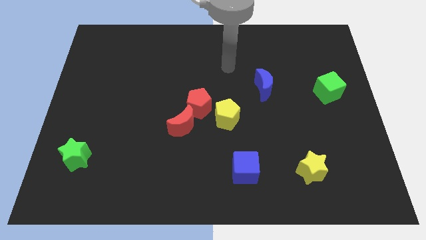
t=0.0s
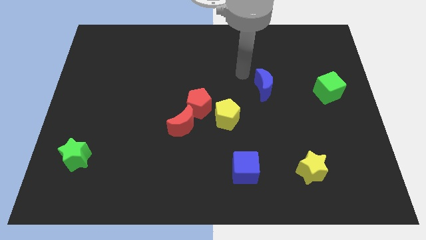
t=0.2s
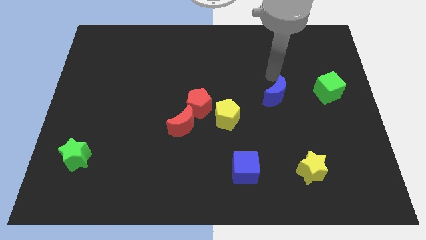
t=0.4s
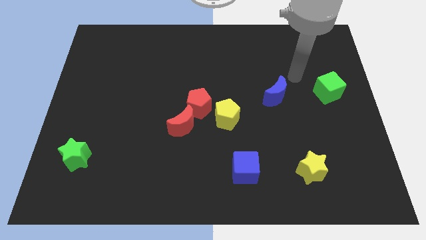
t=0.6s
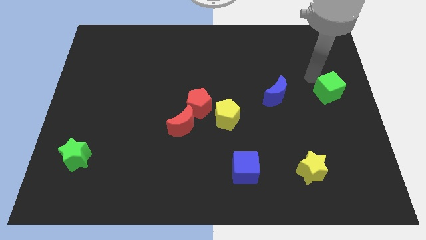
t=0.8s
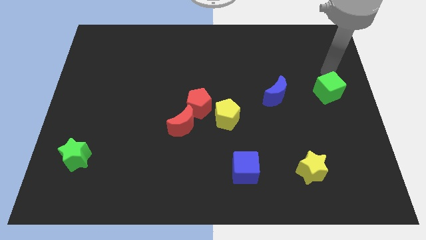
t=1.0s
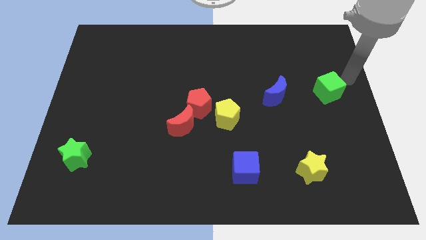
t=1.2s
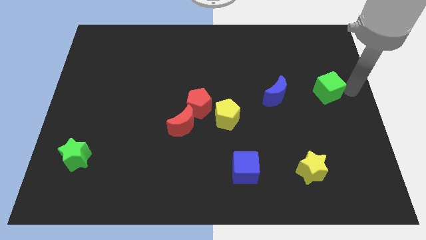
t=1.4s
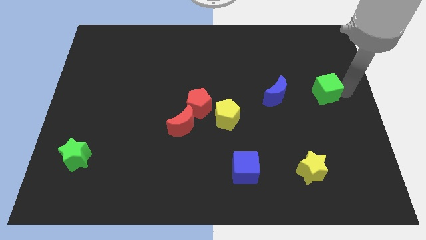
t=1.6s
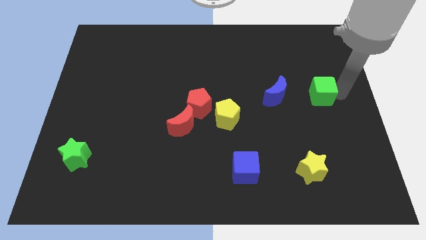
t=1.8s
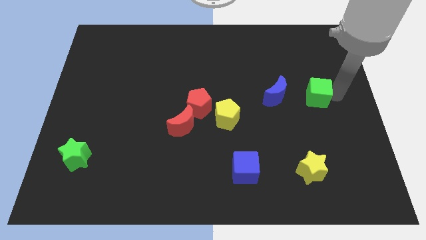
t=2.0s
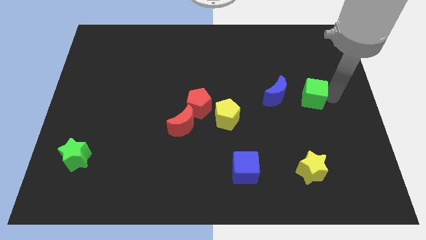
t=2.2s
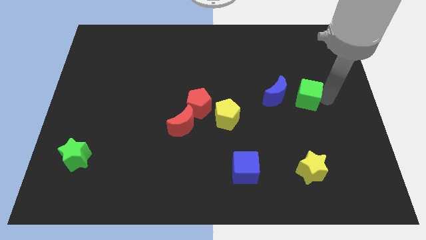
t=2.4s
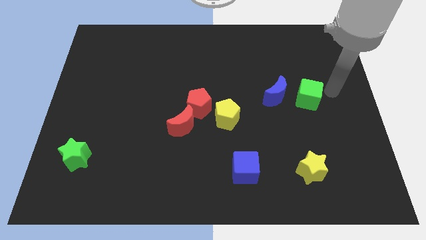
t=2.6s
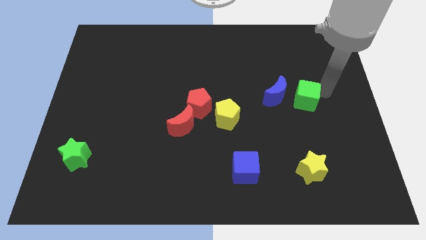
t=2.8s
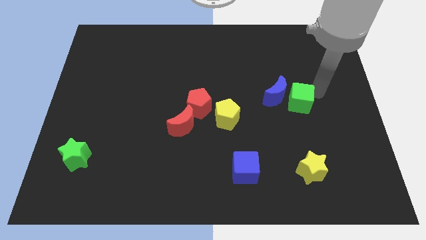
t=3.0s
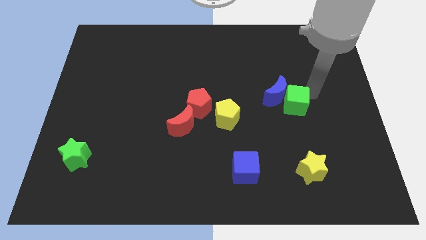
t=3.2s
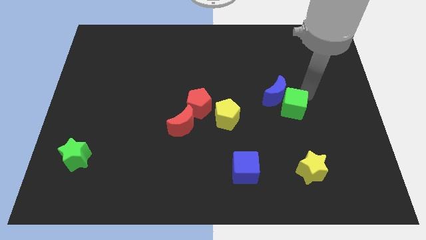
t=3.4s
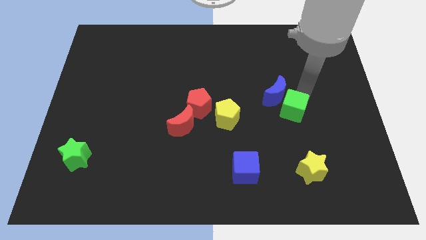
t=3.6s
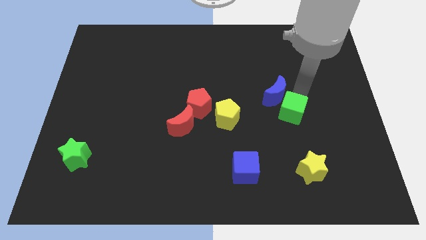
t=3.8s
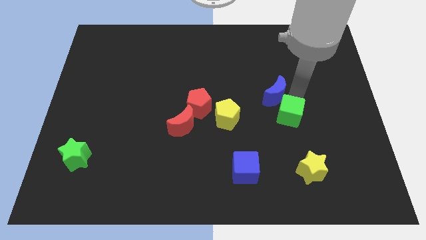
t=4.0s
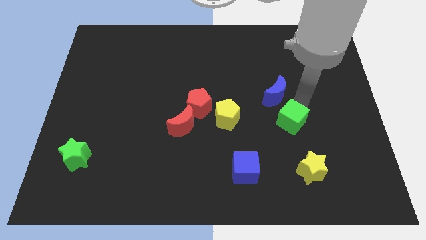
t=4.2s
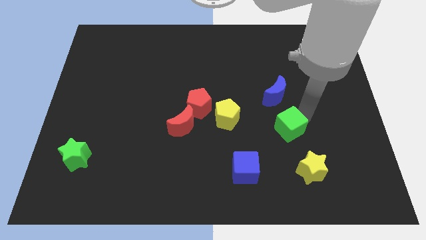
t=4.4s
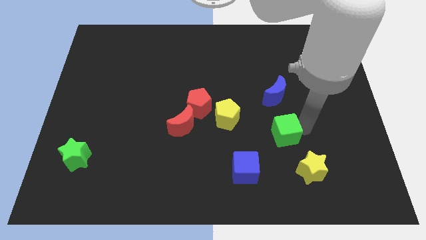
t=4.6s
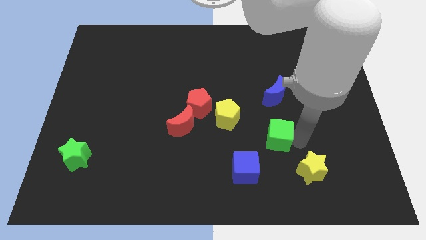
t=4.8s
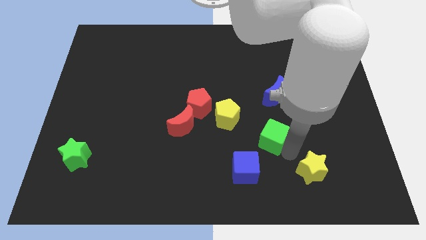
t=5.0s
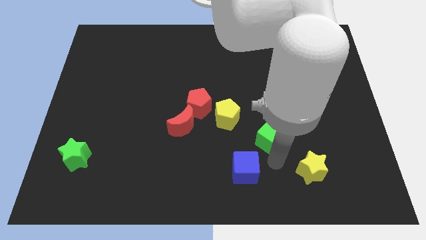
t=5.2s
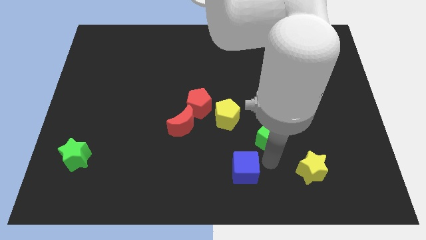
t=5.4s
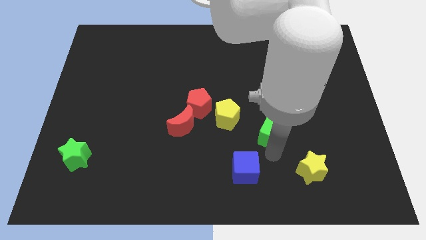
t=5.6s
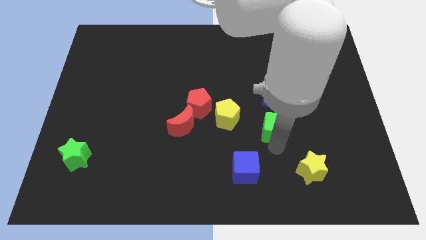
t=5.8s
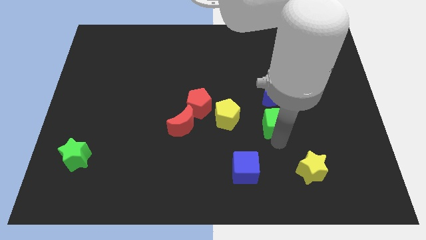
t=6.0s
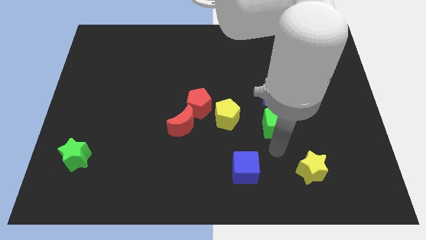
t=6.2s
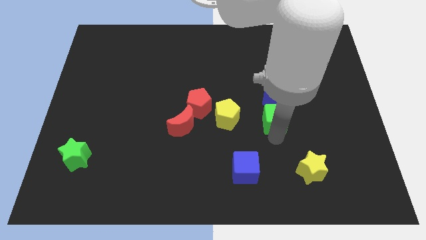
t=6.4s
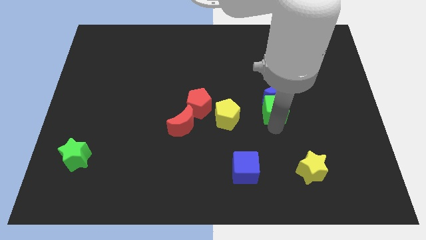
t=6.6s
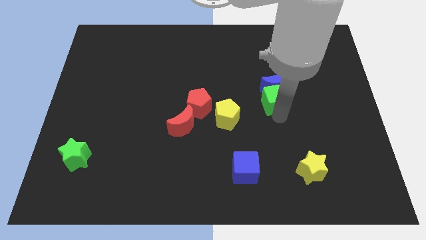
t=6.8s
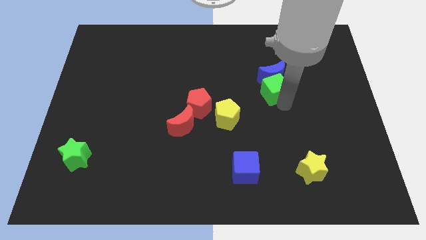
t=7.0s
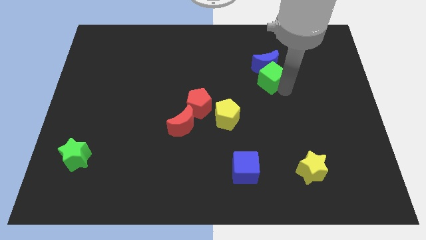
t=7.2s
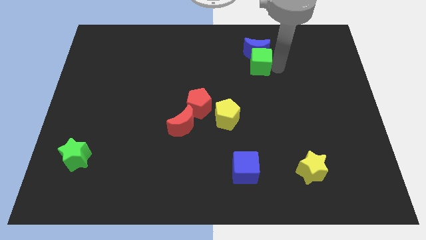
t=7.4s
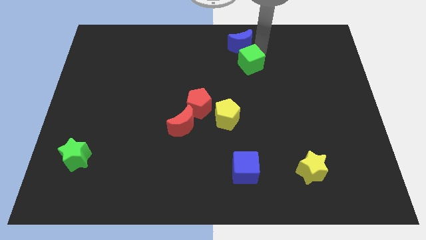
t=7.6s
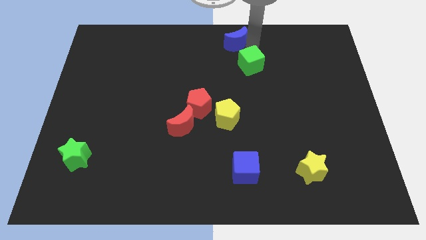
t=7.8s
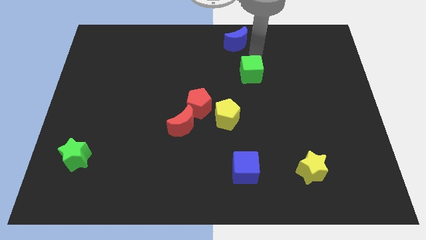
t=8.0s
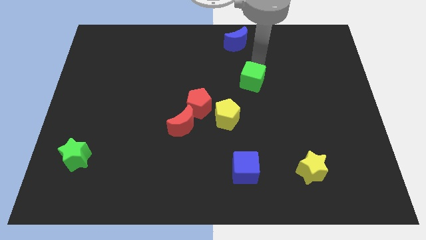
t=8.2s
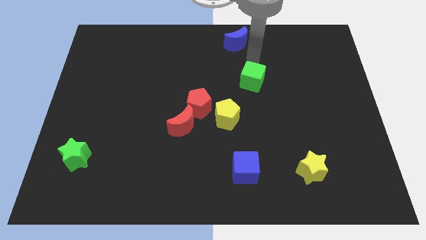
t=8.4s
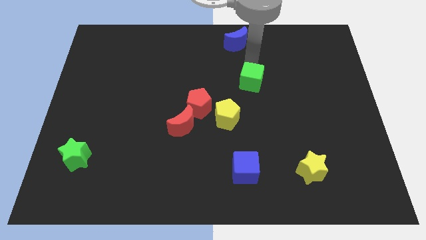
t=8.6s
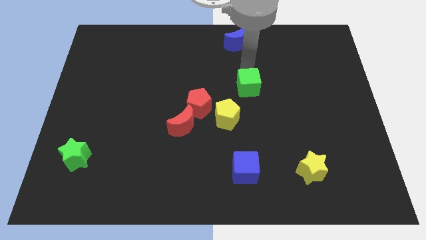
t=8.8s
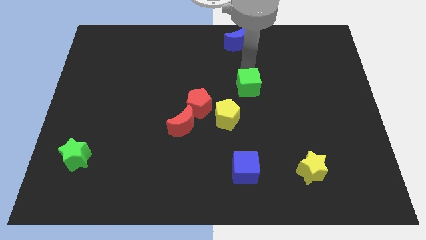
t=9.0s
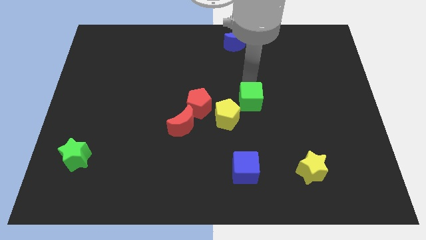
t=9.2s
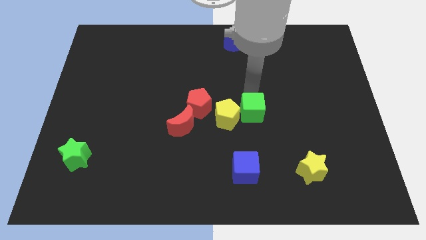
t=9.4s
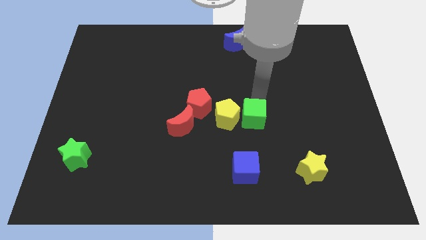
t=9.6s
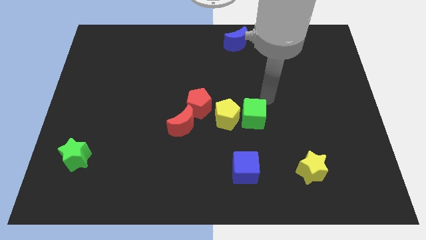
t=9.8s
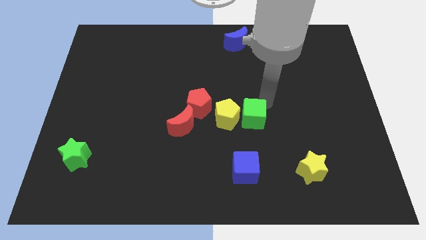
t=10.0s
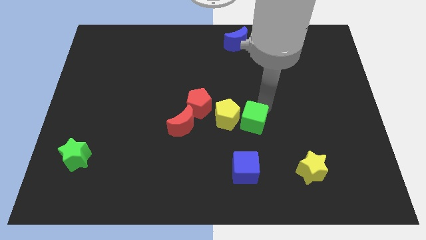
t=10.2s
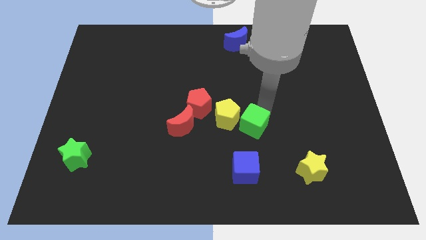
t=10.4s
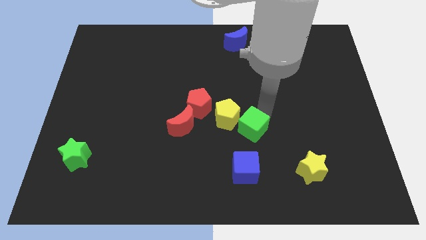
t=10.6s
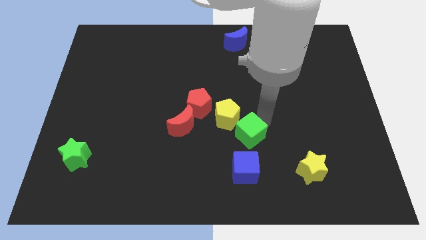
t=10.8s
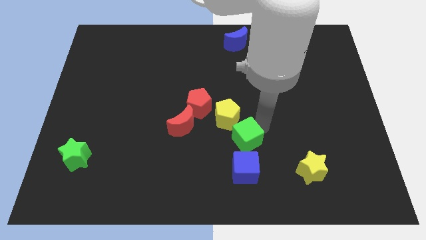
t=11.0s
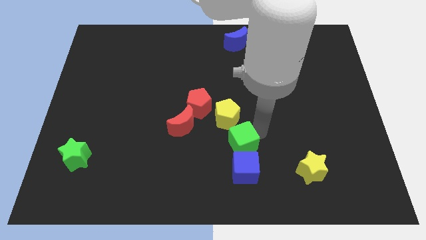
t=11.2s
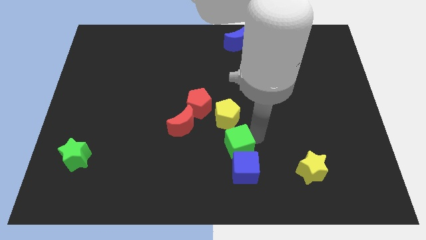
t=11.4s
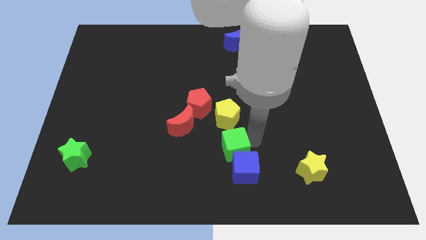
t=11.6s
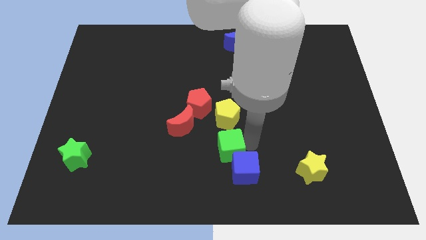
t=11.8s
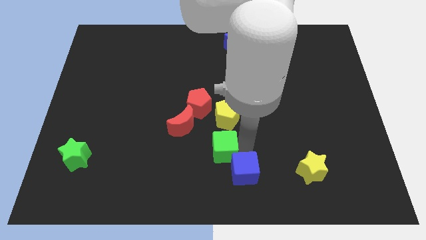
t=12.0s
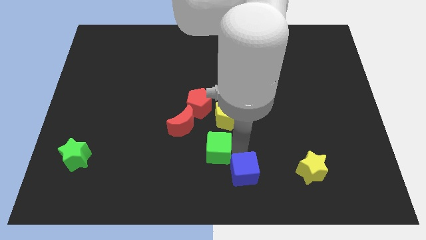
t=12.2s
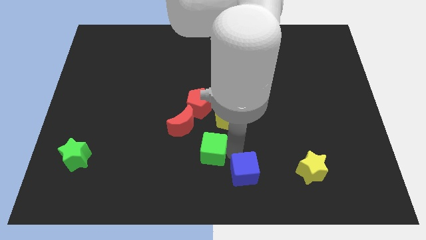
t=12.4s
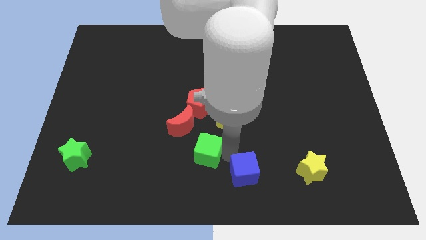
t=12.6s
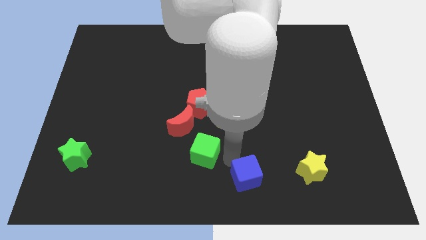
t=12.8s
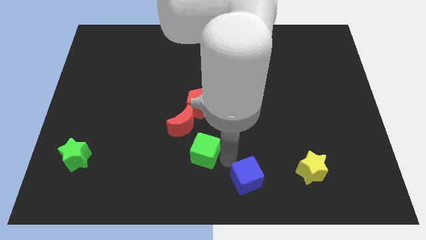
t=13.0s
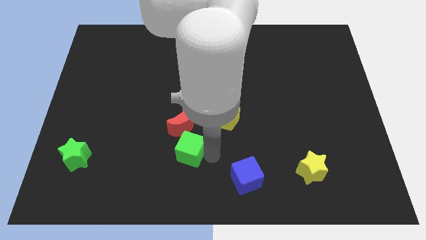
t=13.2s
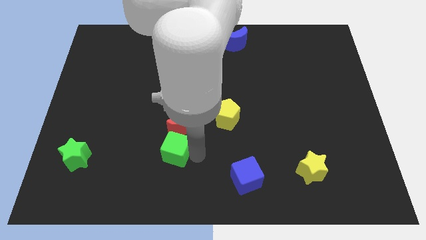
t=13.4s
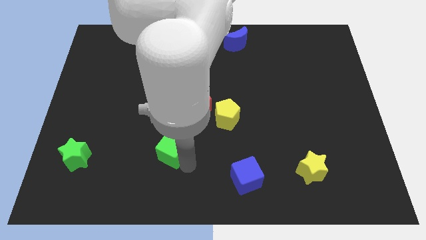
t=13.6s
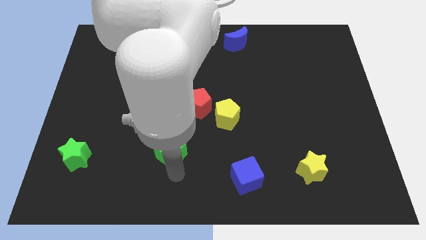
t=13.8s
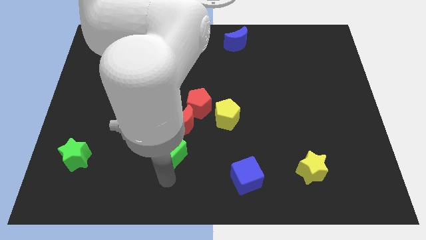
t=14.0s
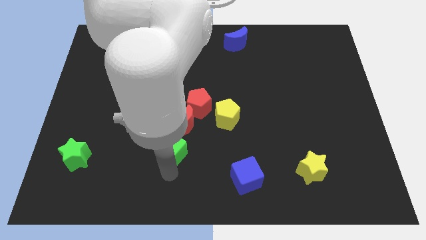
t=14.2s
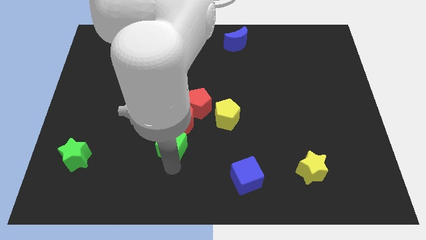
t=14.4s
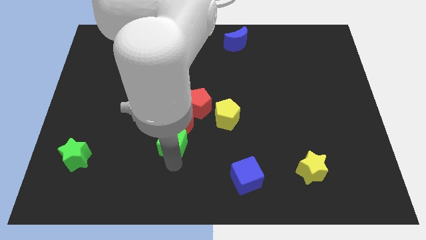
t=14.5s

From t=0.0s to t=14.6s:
push the green cube diagonally down and to the left of the red pentagon
